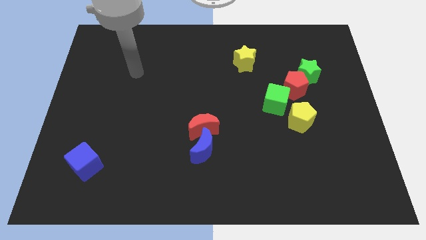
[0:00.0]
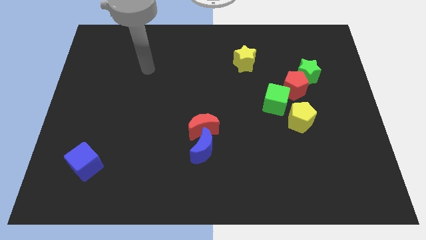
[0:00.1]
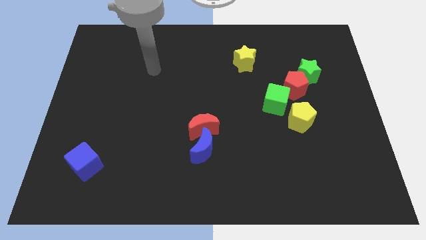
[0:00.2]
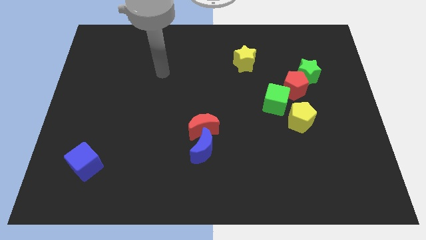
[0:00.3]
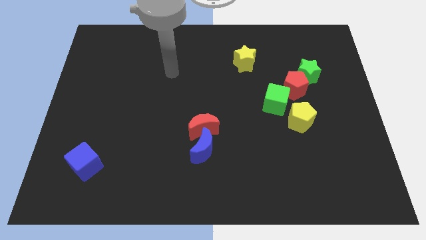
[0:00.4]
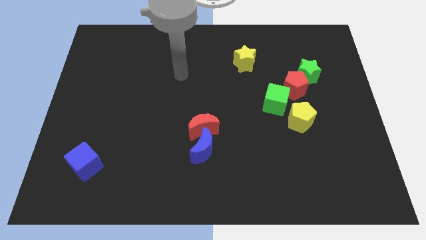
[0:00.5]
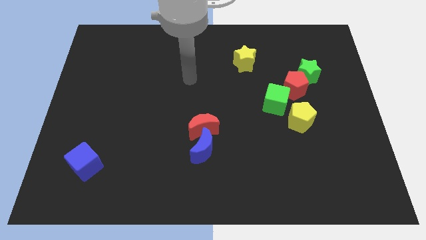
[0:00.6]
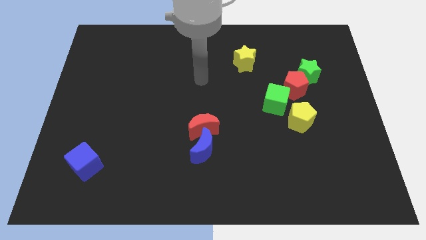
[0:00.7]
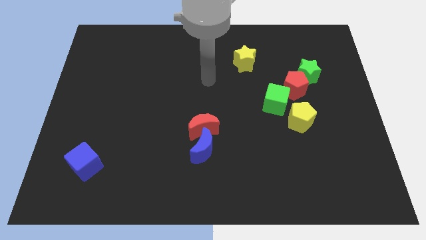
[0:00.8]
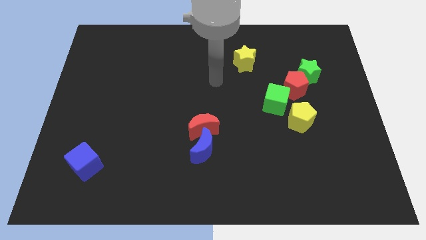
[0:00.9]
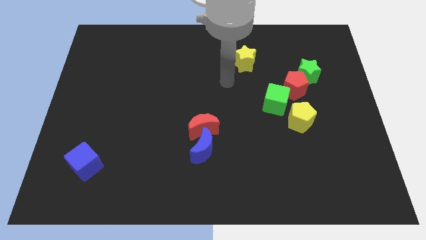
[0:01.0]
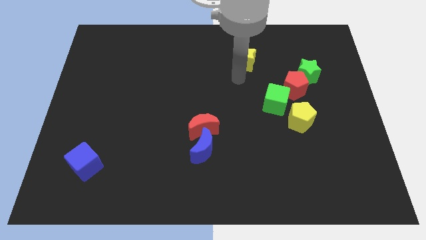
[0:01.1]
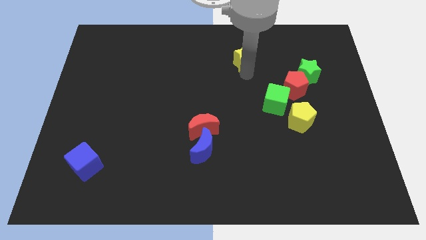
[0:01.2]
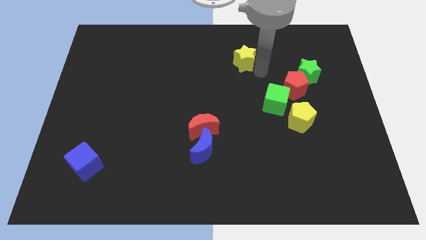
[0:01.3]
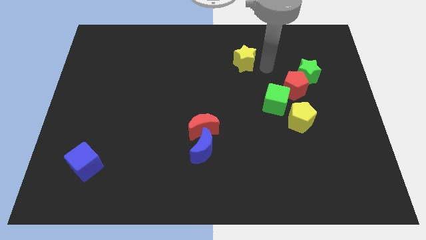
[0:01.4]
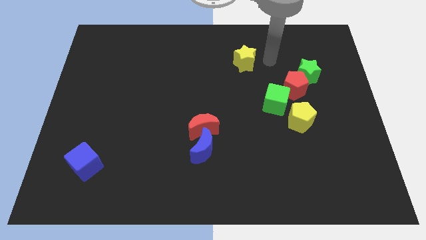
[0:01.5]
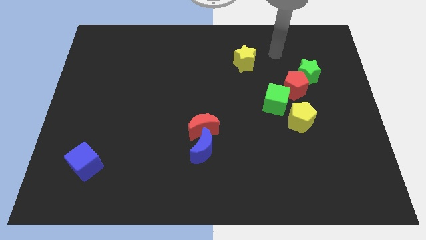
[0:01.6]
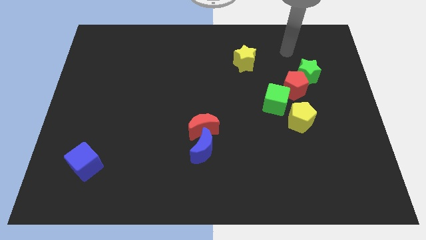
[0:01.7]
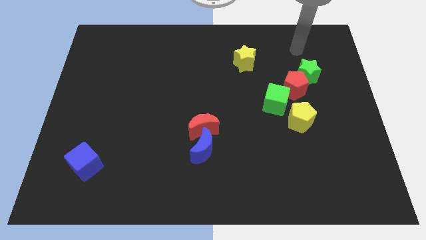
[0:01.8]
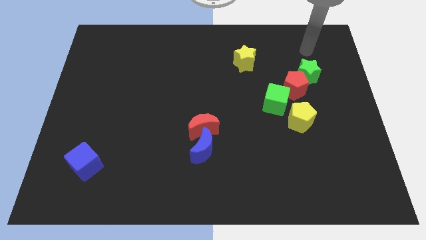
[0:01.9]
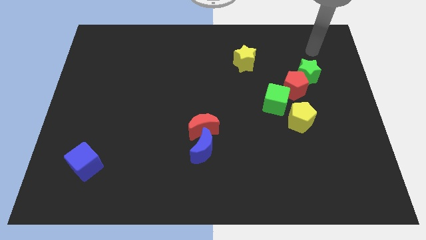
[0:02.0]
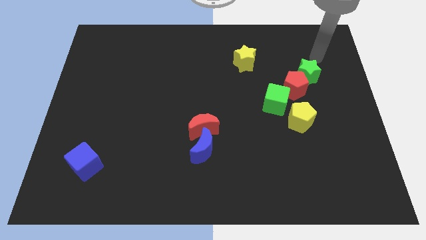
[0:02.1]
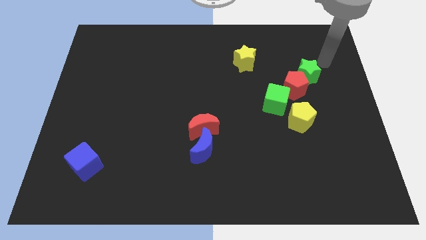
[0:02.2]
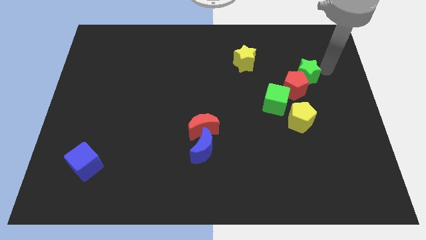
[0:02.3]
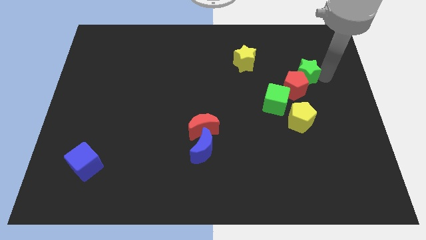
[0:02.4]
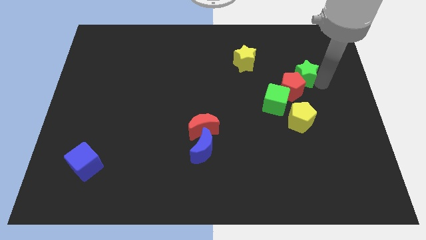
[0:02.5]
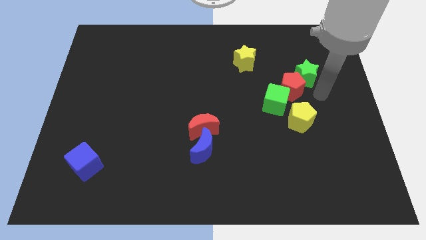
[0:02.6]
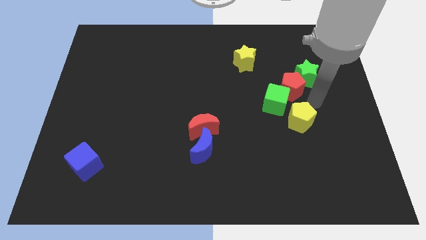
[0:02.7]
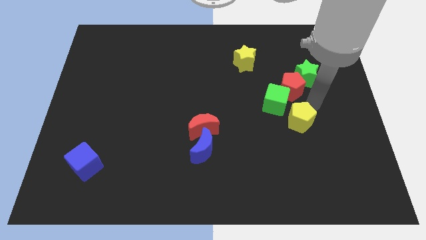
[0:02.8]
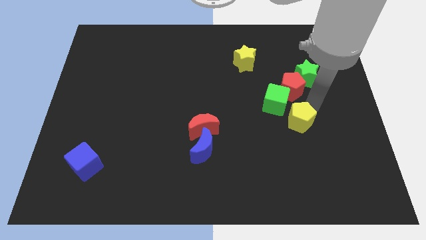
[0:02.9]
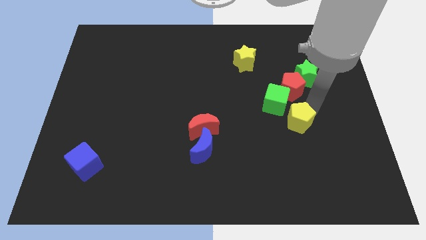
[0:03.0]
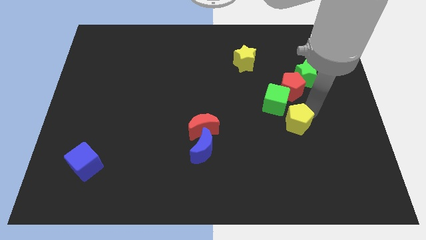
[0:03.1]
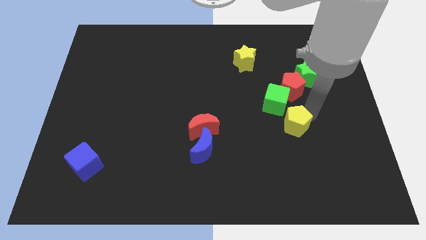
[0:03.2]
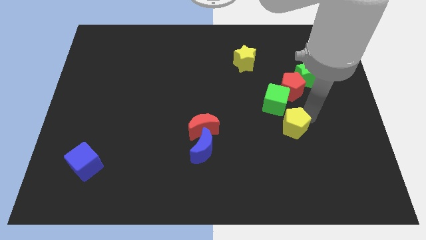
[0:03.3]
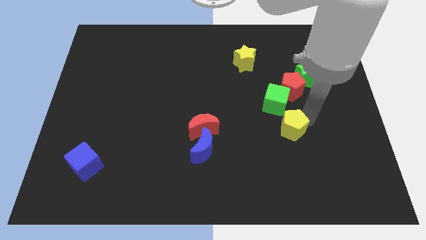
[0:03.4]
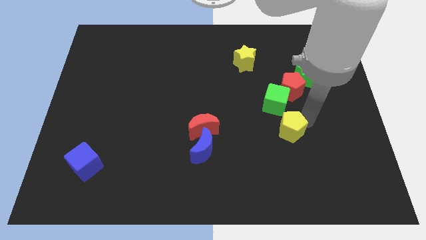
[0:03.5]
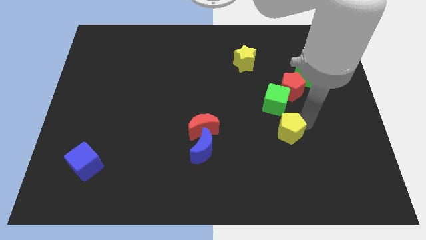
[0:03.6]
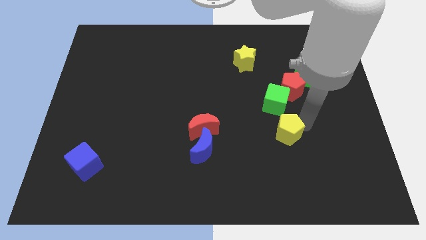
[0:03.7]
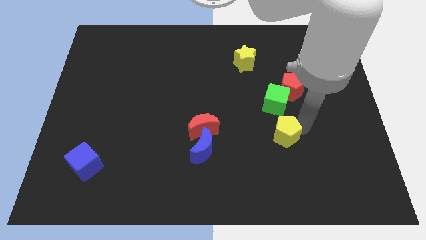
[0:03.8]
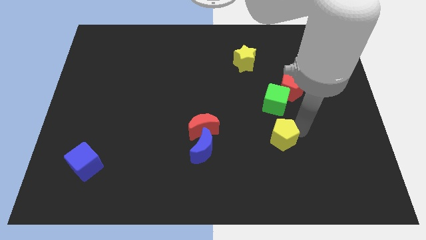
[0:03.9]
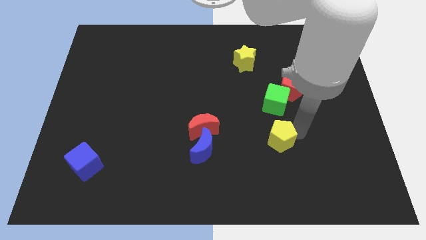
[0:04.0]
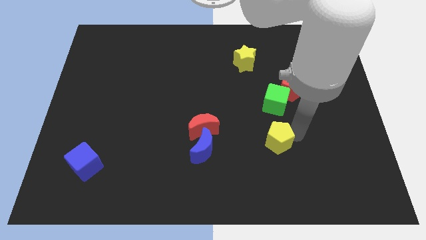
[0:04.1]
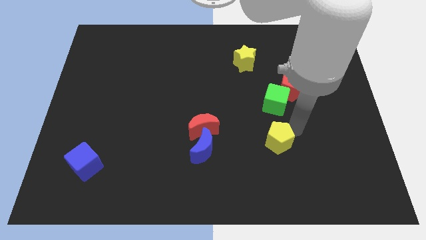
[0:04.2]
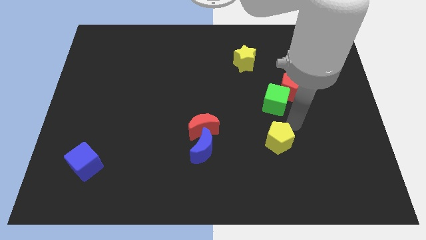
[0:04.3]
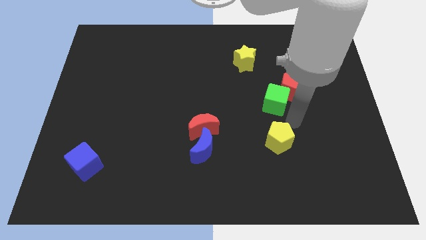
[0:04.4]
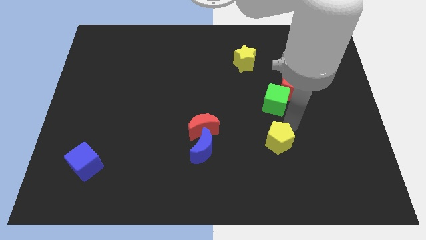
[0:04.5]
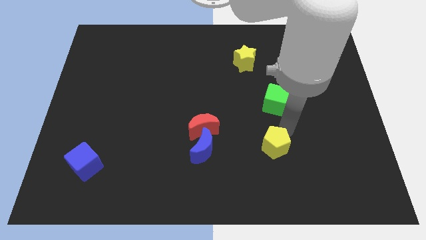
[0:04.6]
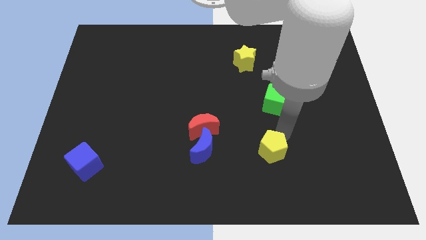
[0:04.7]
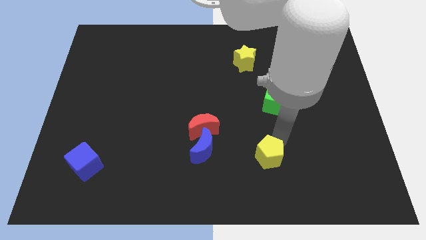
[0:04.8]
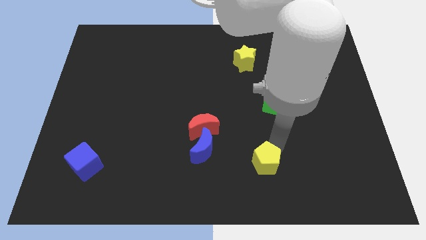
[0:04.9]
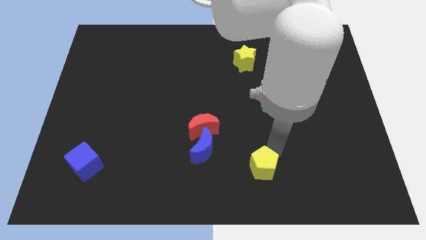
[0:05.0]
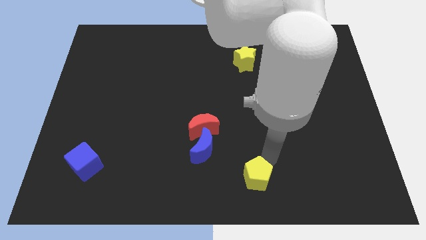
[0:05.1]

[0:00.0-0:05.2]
put the yellow pentagon to the bottom side

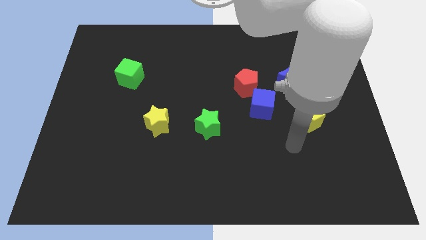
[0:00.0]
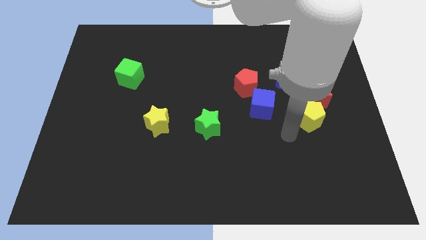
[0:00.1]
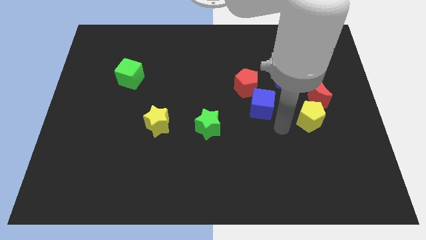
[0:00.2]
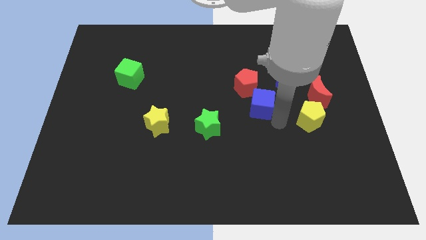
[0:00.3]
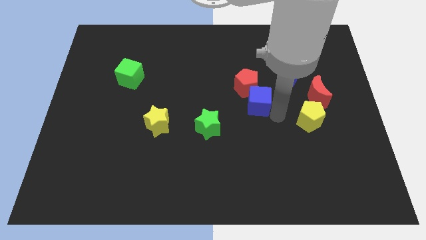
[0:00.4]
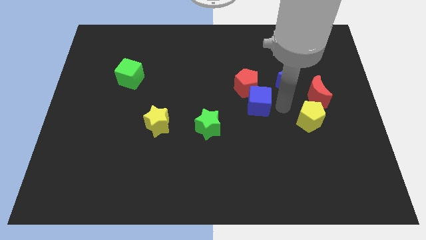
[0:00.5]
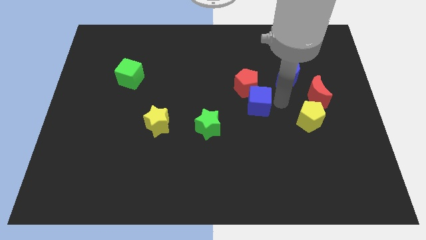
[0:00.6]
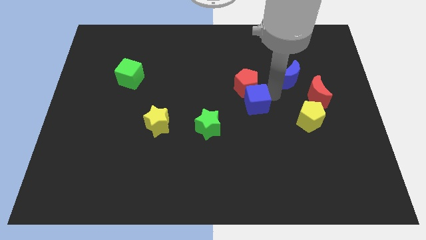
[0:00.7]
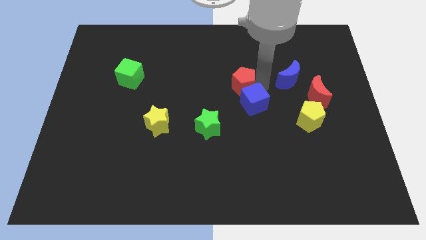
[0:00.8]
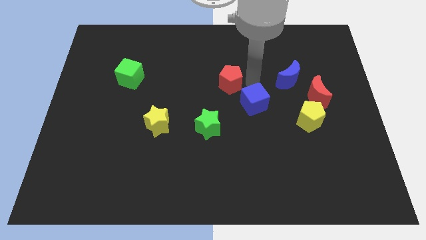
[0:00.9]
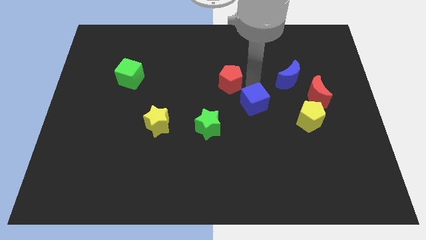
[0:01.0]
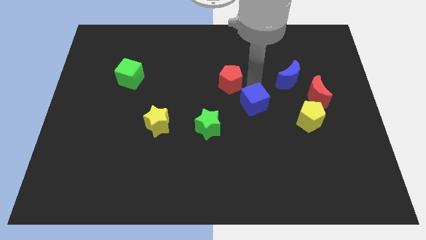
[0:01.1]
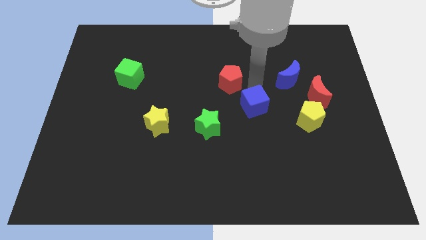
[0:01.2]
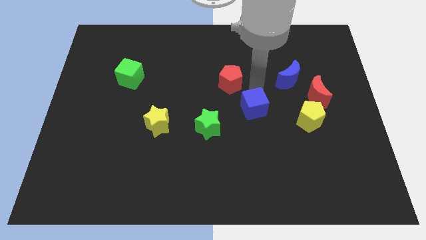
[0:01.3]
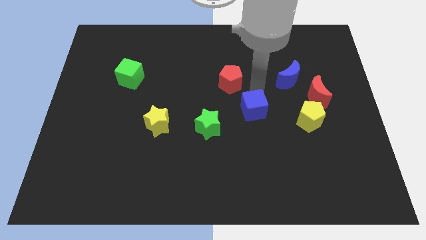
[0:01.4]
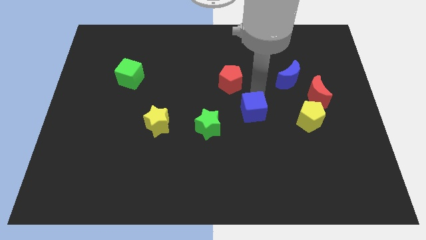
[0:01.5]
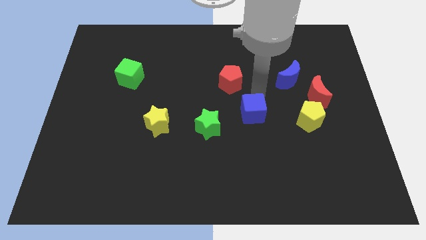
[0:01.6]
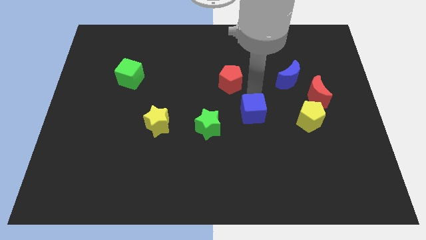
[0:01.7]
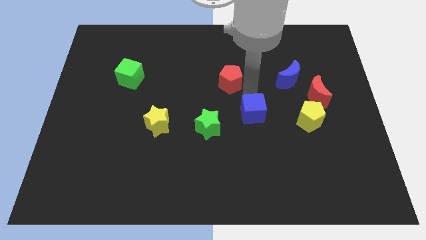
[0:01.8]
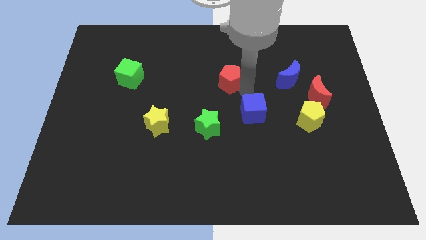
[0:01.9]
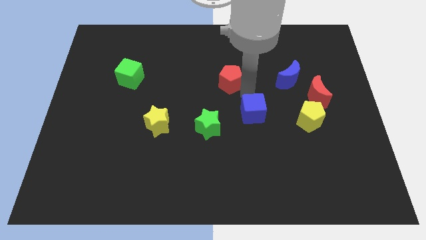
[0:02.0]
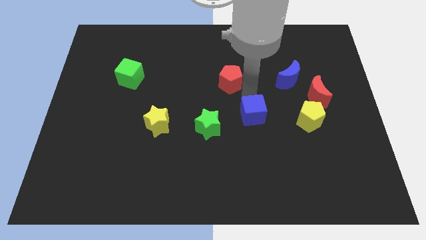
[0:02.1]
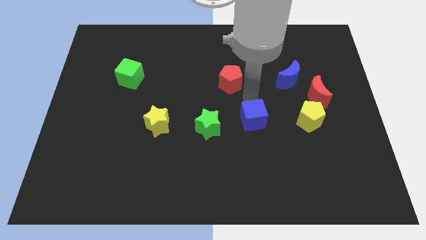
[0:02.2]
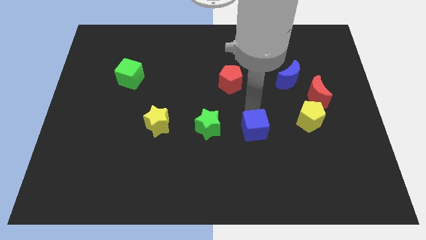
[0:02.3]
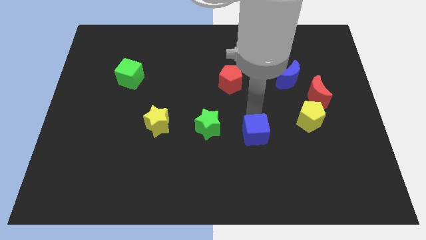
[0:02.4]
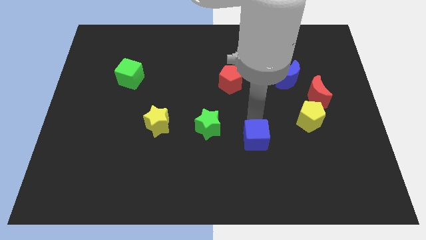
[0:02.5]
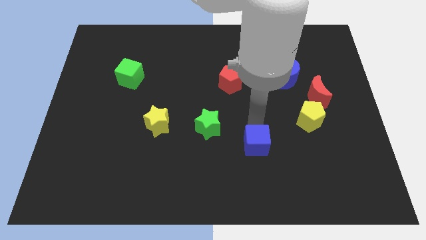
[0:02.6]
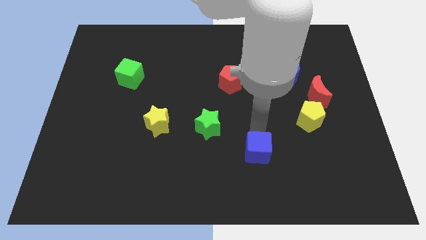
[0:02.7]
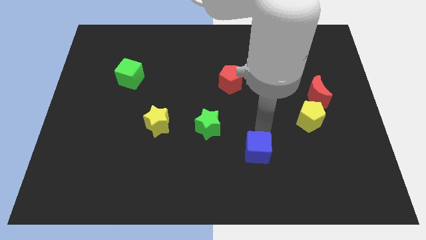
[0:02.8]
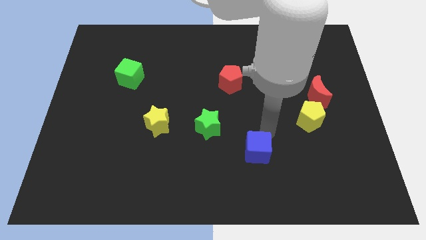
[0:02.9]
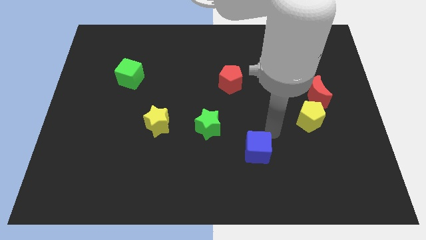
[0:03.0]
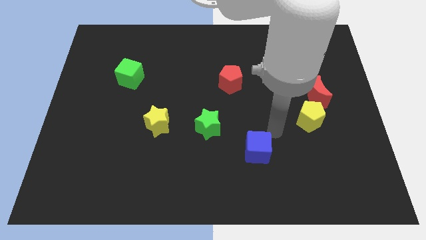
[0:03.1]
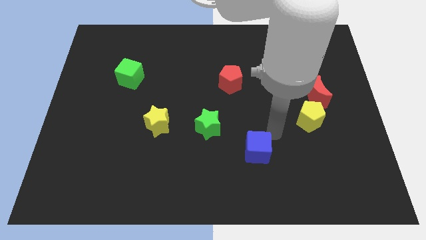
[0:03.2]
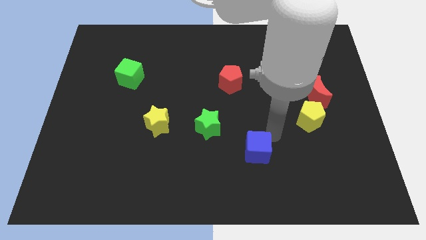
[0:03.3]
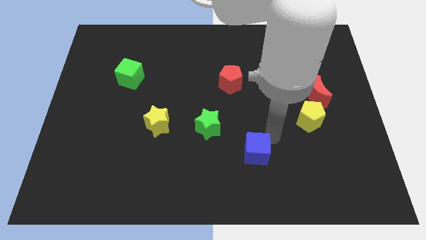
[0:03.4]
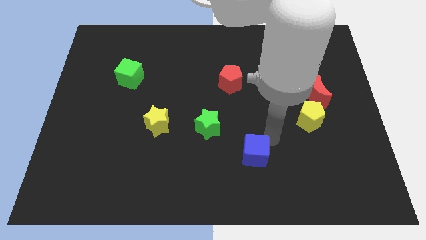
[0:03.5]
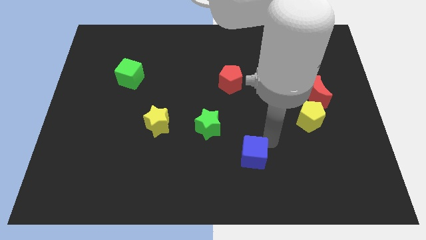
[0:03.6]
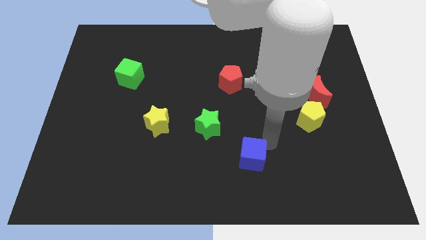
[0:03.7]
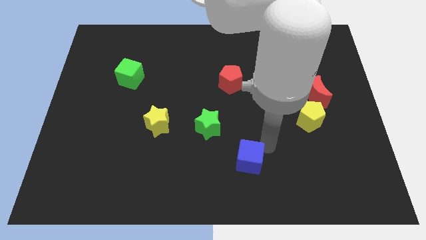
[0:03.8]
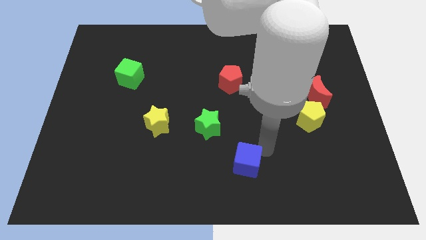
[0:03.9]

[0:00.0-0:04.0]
slide the blue cube to the bottom
